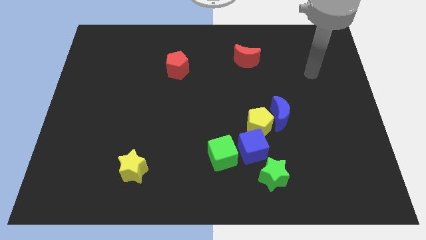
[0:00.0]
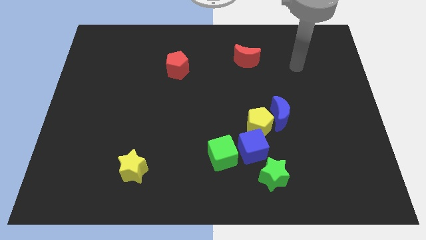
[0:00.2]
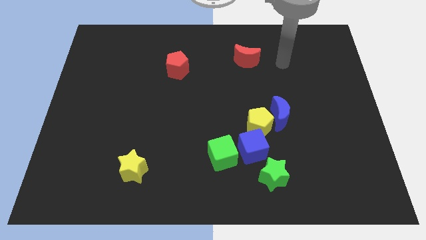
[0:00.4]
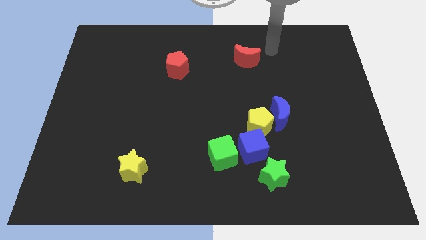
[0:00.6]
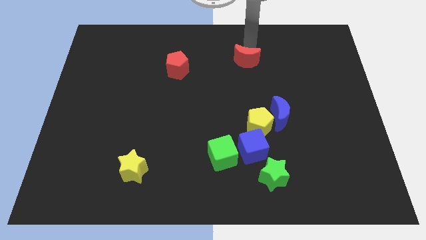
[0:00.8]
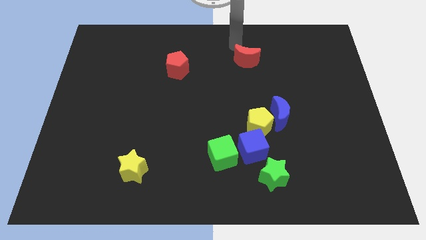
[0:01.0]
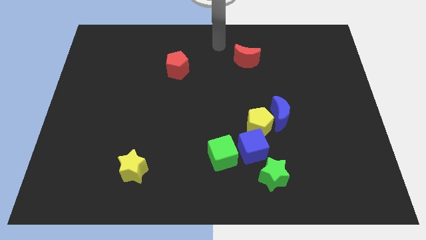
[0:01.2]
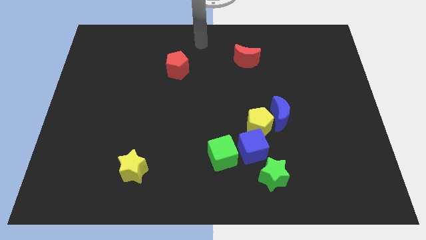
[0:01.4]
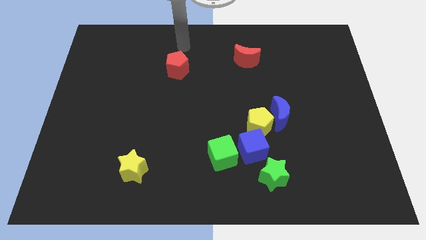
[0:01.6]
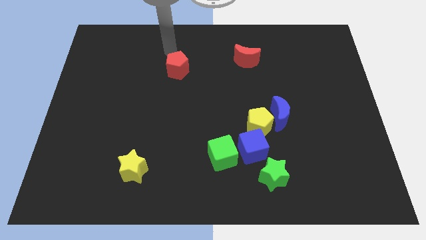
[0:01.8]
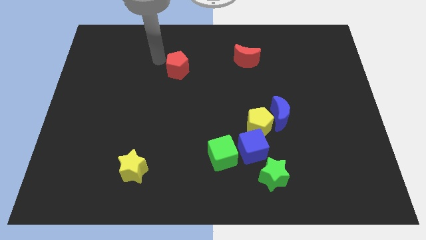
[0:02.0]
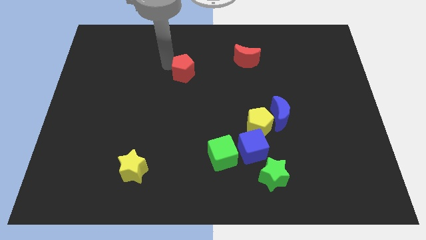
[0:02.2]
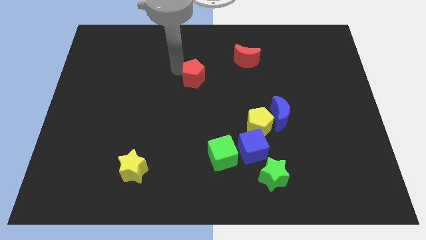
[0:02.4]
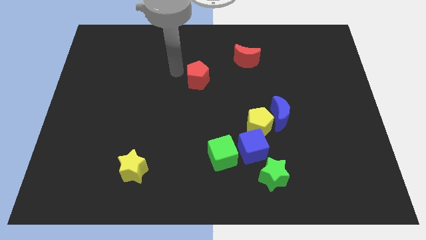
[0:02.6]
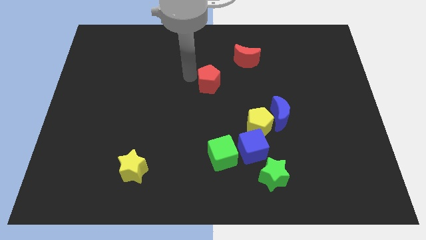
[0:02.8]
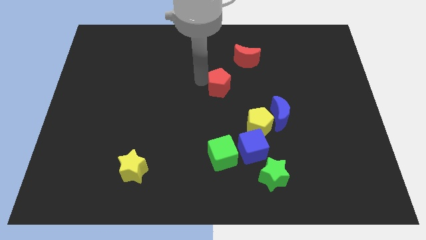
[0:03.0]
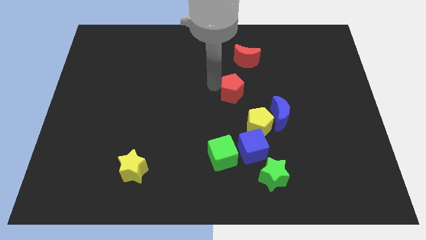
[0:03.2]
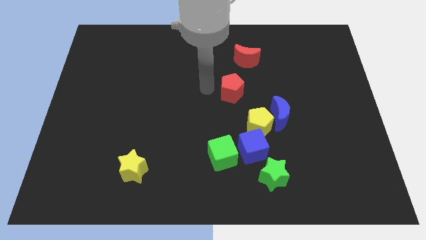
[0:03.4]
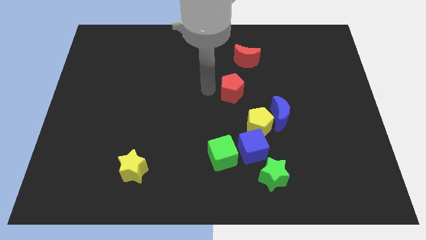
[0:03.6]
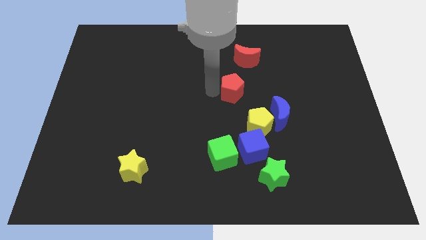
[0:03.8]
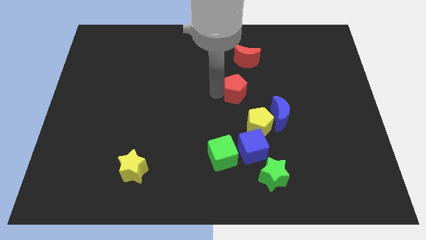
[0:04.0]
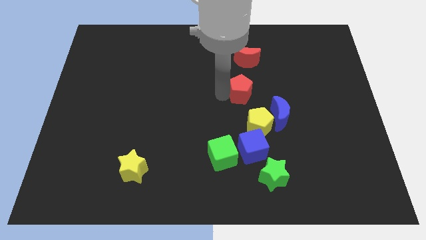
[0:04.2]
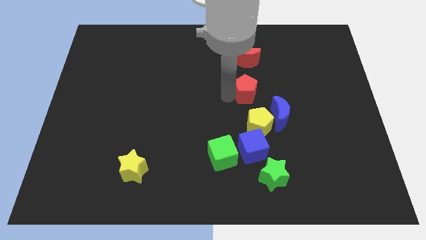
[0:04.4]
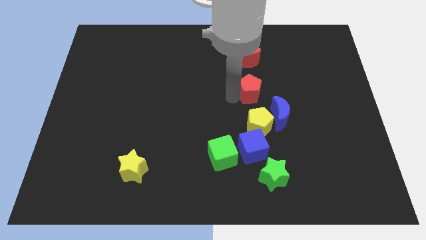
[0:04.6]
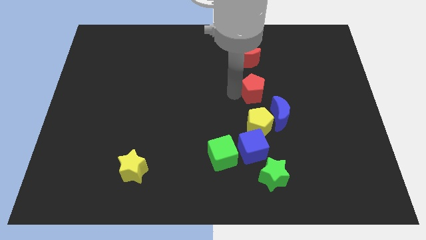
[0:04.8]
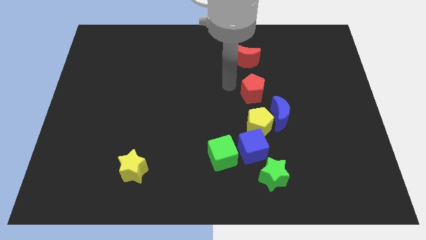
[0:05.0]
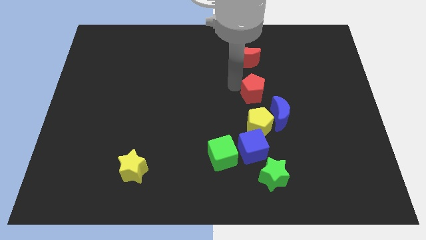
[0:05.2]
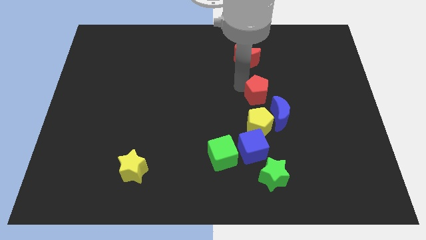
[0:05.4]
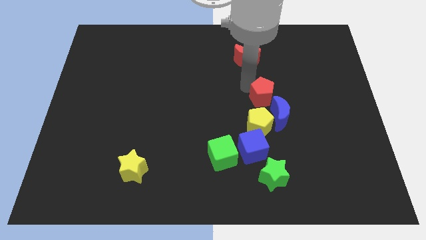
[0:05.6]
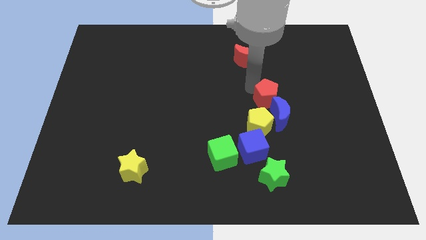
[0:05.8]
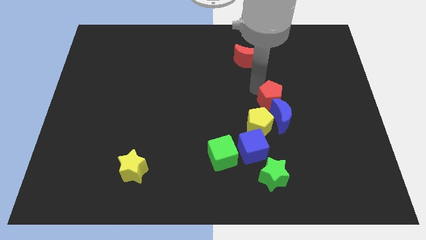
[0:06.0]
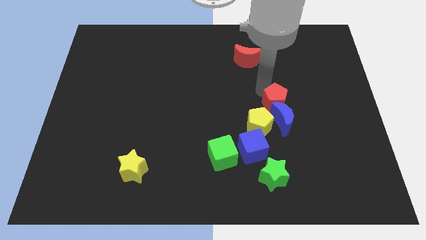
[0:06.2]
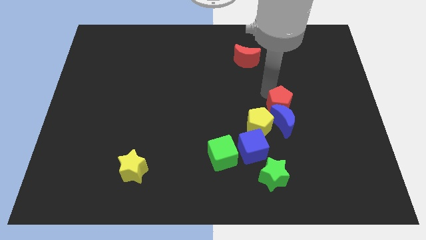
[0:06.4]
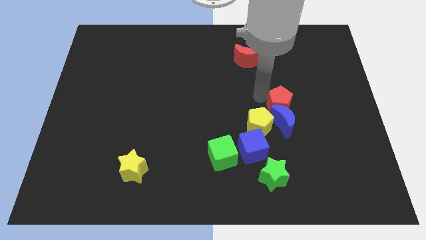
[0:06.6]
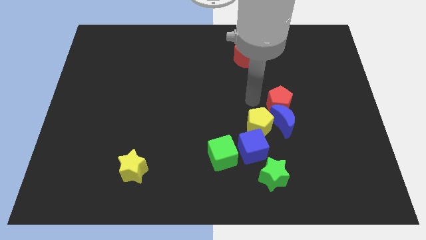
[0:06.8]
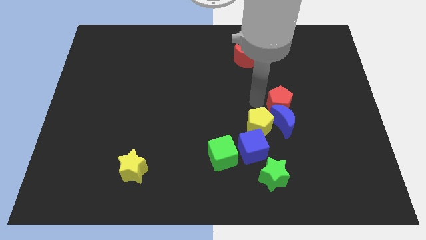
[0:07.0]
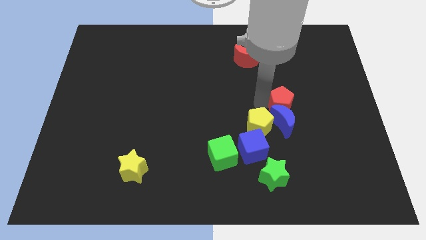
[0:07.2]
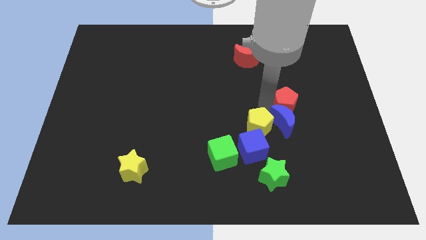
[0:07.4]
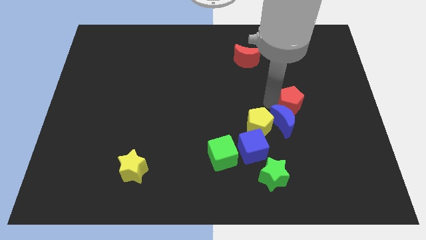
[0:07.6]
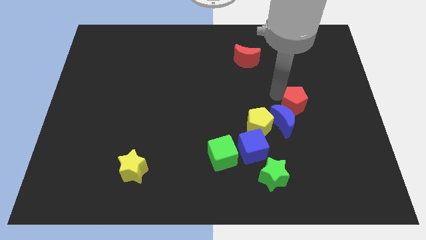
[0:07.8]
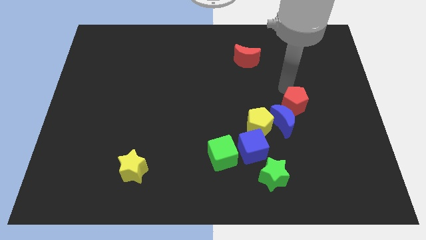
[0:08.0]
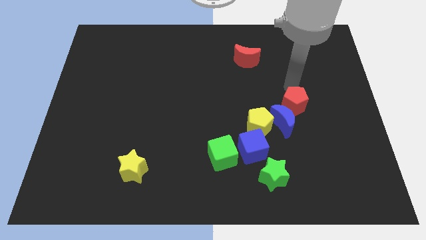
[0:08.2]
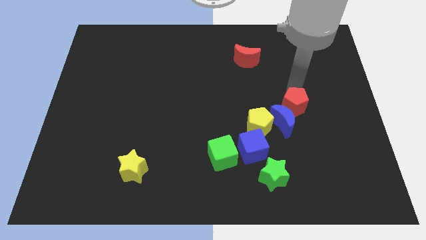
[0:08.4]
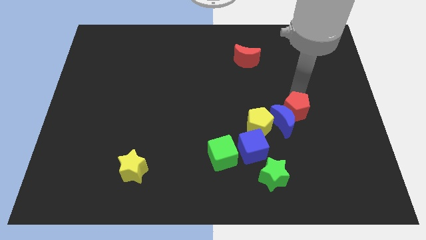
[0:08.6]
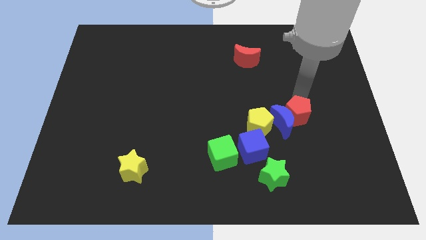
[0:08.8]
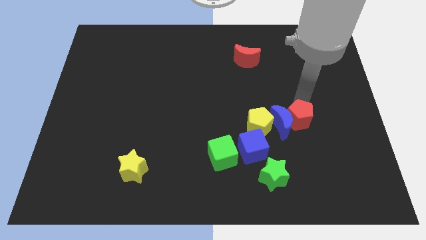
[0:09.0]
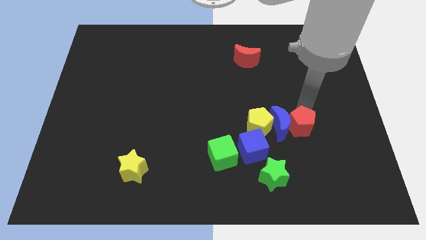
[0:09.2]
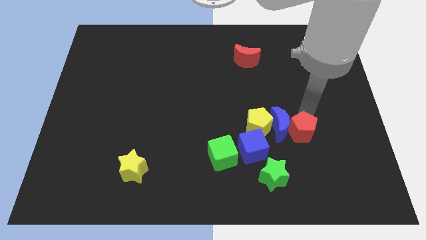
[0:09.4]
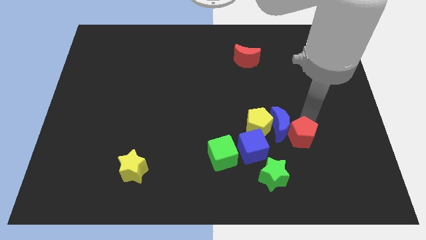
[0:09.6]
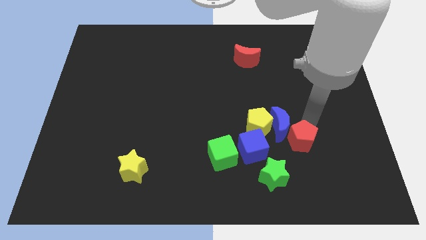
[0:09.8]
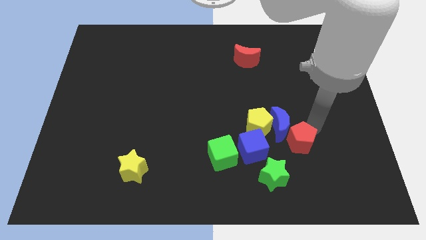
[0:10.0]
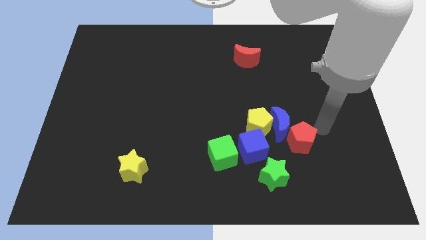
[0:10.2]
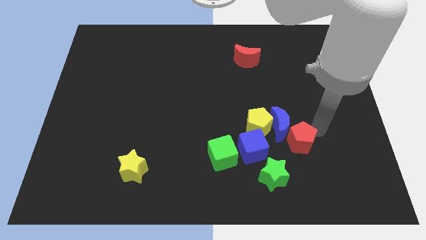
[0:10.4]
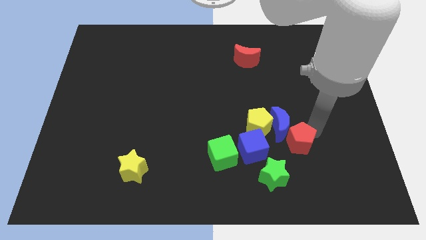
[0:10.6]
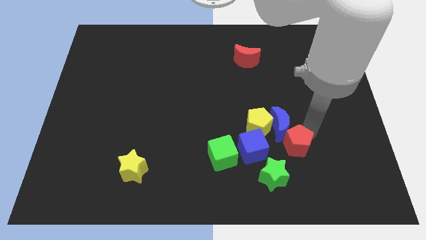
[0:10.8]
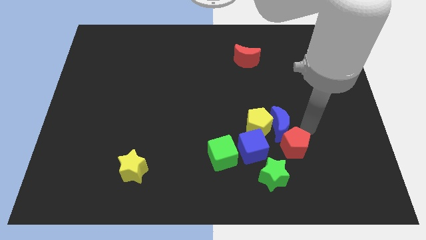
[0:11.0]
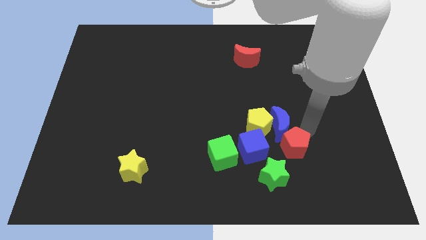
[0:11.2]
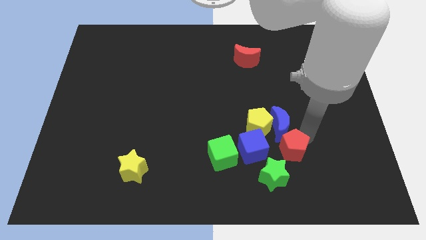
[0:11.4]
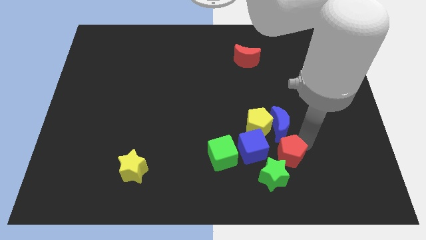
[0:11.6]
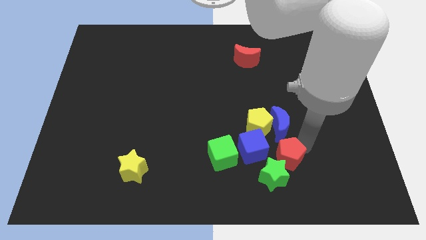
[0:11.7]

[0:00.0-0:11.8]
slide the red pentagon towards the green star

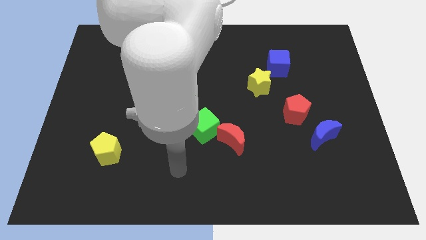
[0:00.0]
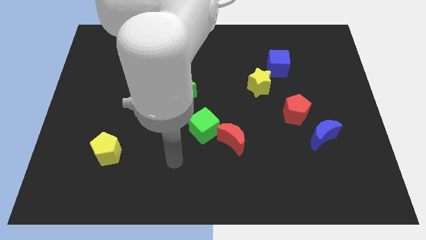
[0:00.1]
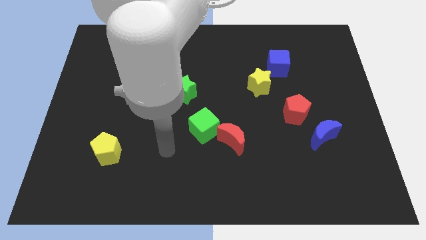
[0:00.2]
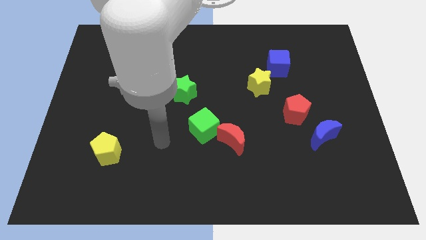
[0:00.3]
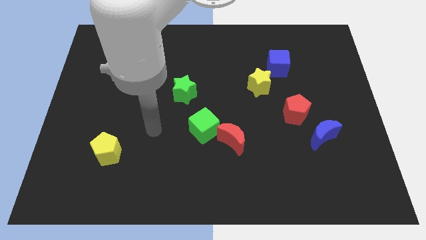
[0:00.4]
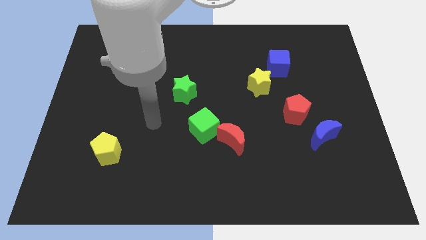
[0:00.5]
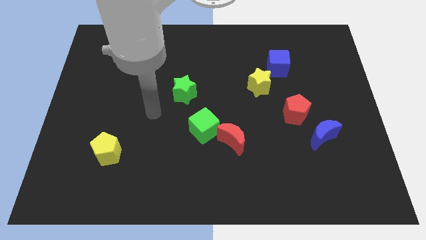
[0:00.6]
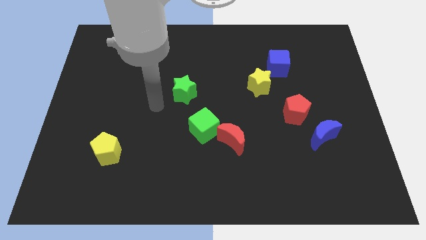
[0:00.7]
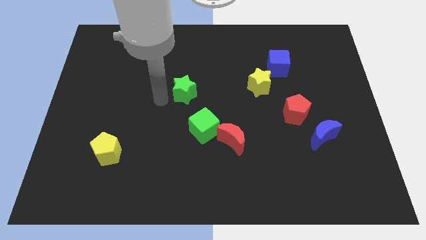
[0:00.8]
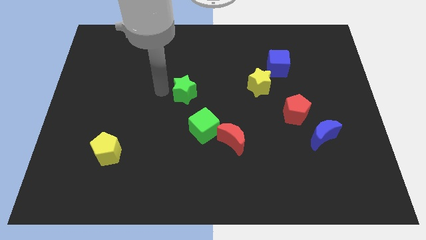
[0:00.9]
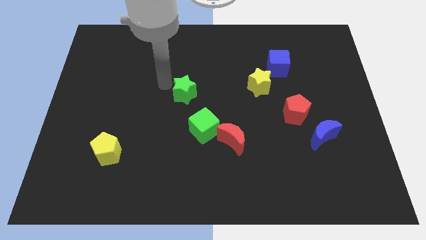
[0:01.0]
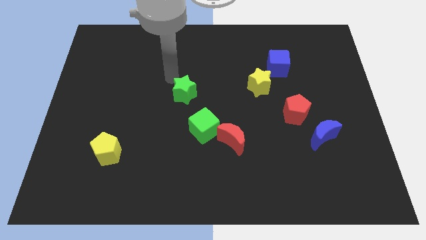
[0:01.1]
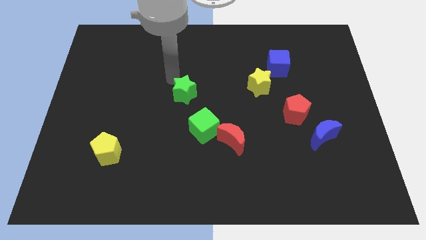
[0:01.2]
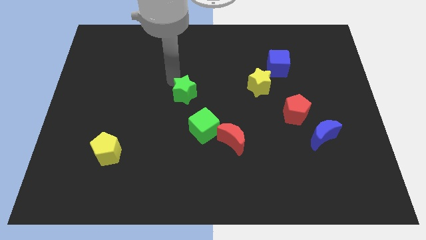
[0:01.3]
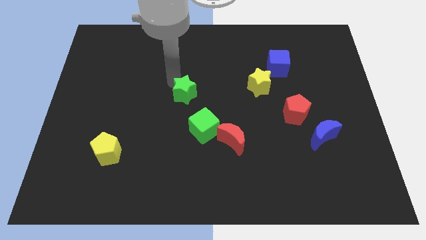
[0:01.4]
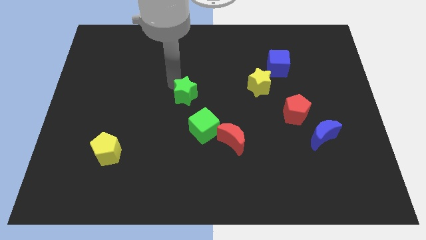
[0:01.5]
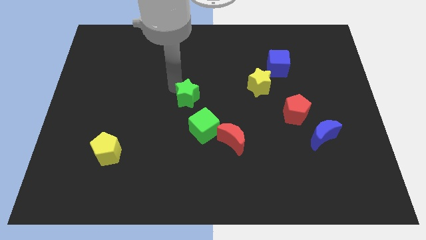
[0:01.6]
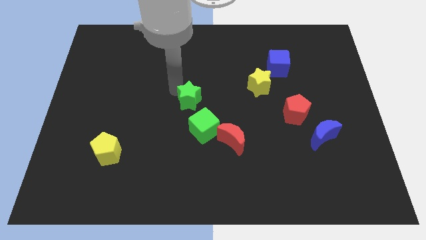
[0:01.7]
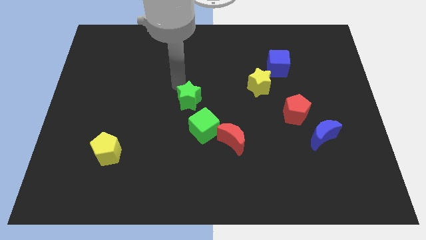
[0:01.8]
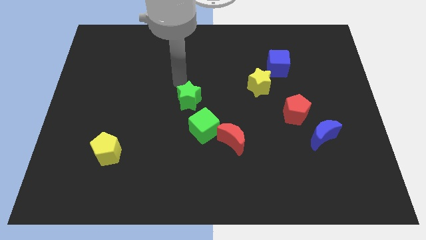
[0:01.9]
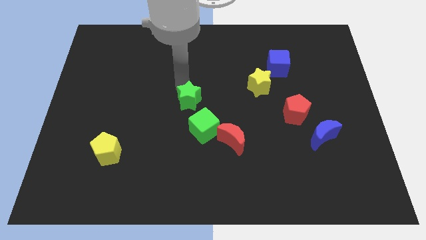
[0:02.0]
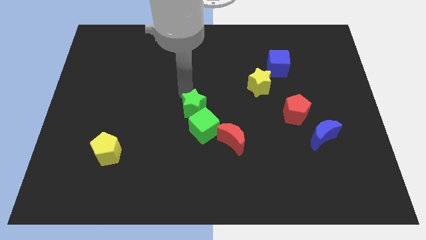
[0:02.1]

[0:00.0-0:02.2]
push the green star towards the green cube
